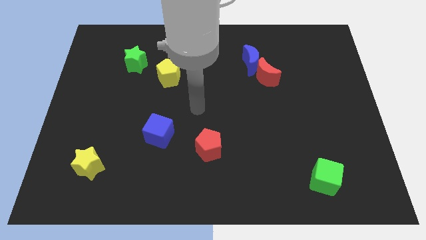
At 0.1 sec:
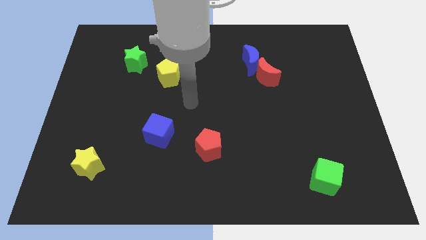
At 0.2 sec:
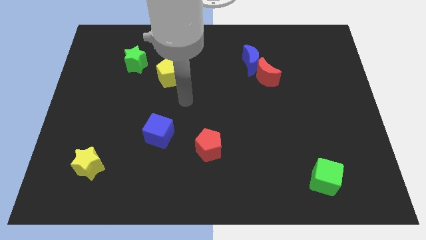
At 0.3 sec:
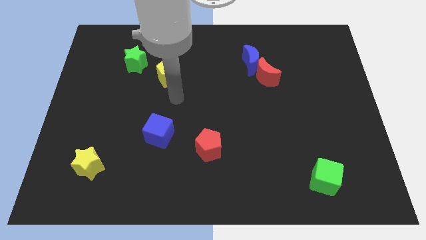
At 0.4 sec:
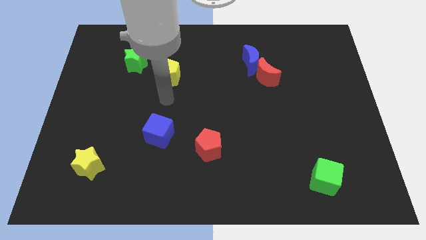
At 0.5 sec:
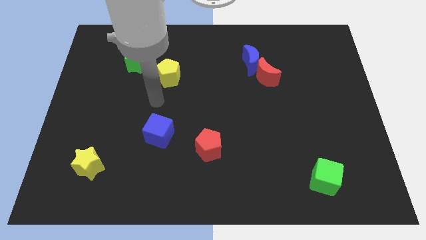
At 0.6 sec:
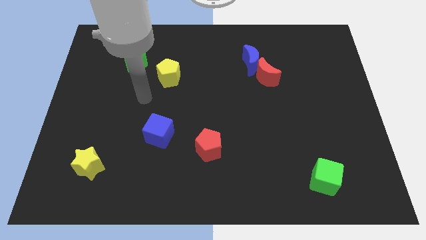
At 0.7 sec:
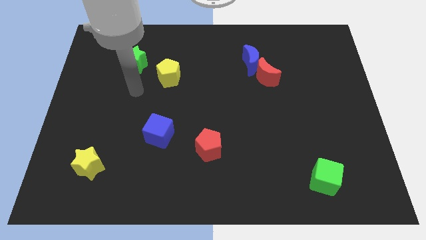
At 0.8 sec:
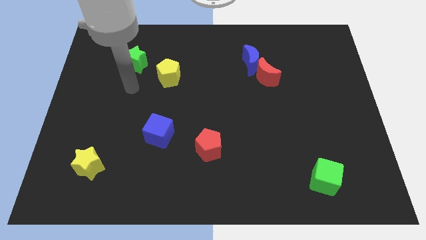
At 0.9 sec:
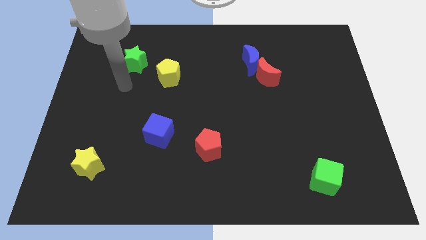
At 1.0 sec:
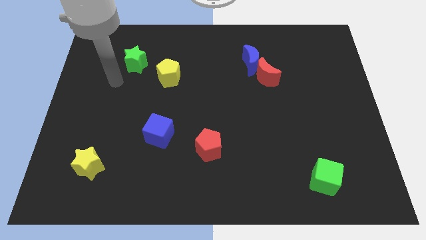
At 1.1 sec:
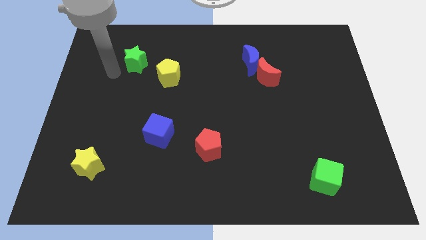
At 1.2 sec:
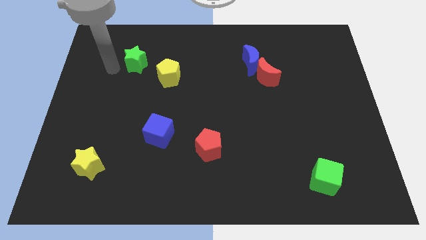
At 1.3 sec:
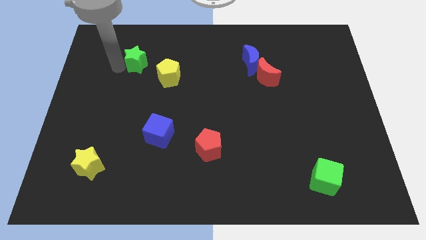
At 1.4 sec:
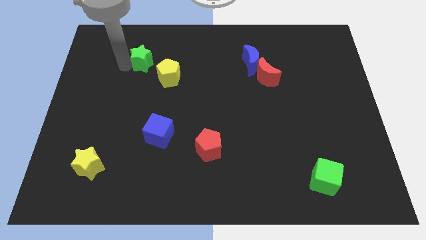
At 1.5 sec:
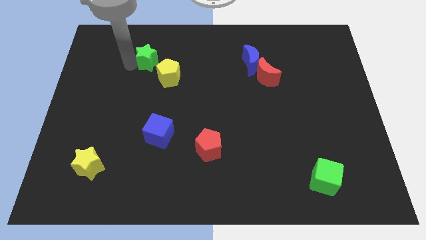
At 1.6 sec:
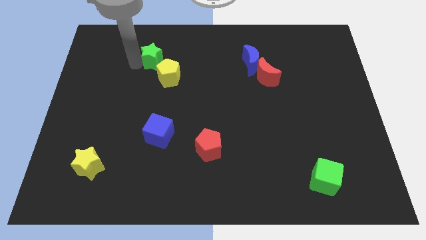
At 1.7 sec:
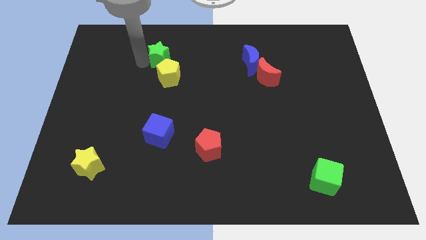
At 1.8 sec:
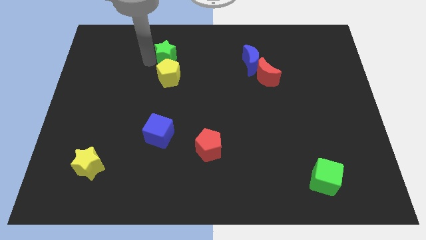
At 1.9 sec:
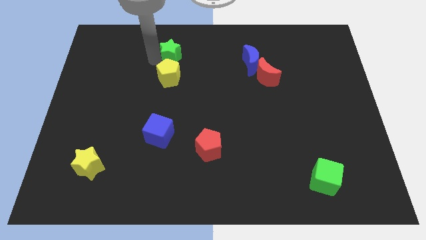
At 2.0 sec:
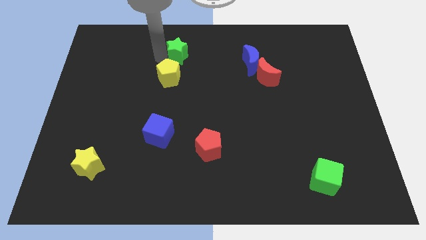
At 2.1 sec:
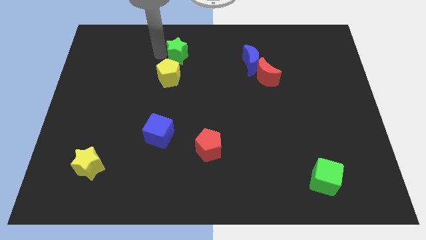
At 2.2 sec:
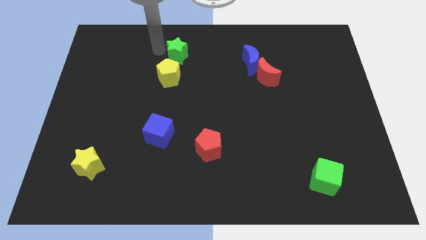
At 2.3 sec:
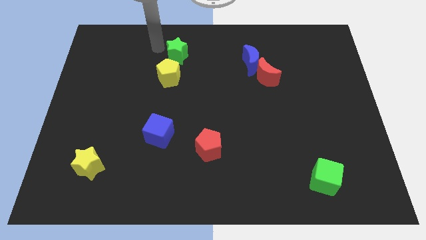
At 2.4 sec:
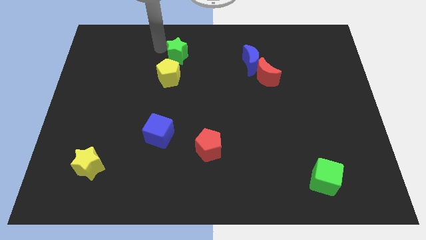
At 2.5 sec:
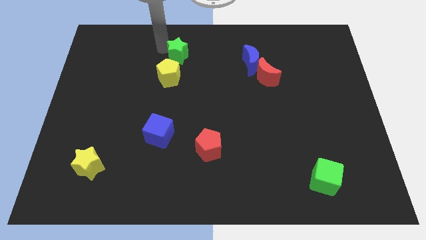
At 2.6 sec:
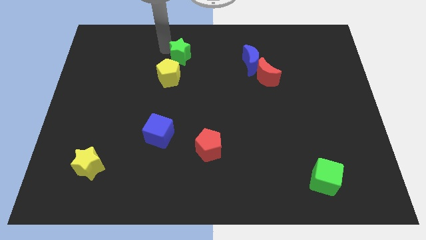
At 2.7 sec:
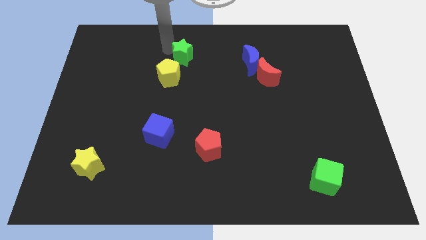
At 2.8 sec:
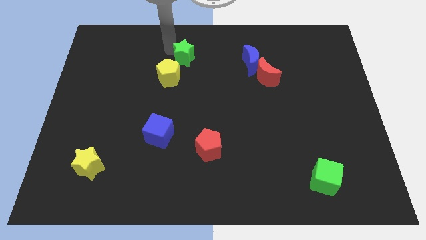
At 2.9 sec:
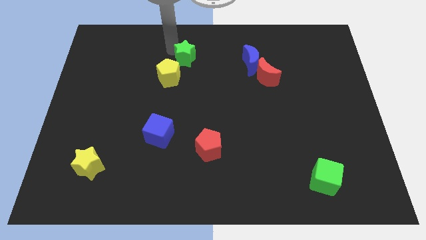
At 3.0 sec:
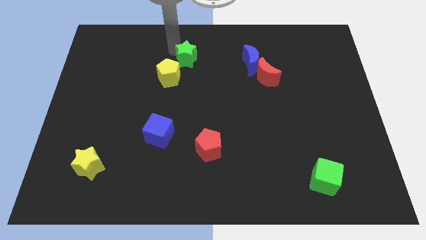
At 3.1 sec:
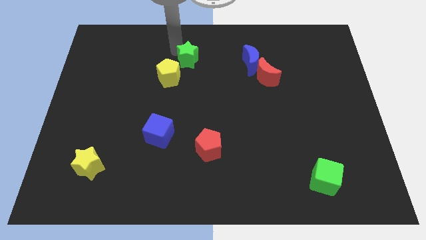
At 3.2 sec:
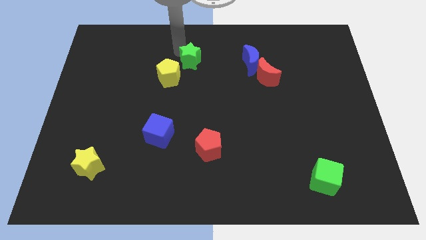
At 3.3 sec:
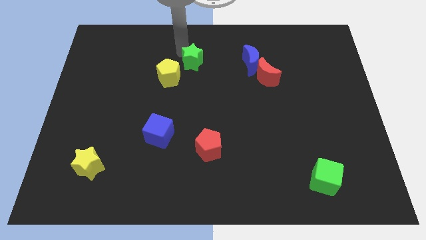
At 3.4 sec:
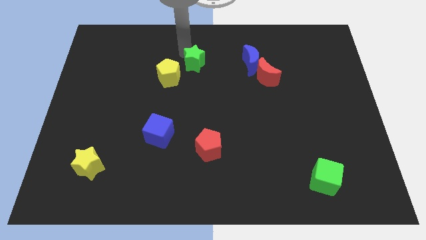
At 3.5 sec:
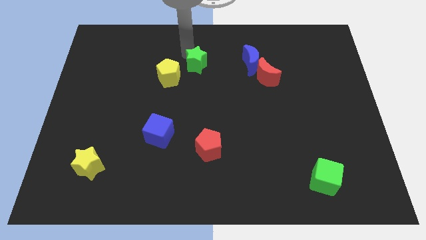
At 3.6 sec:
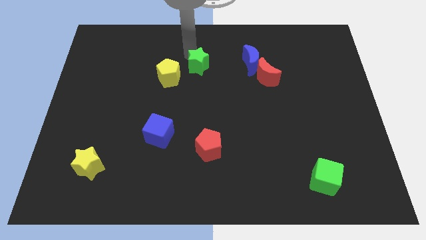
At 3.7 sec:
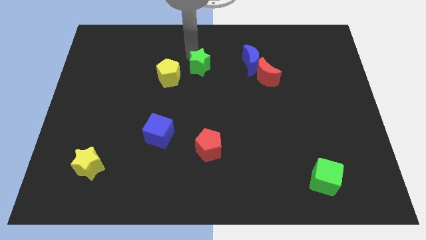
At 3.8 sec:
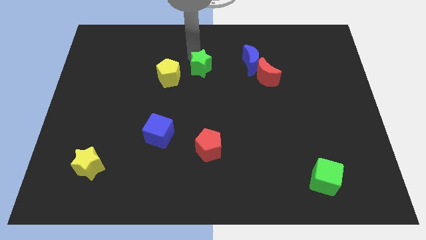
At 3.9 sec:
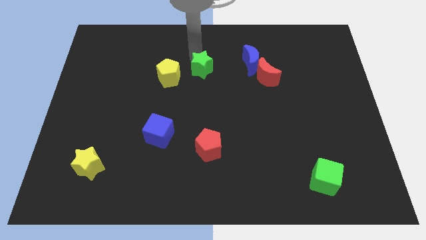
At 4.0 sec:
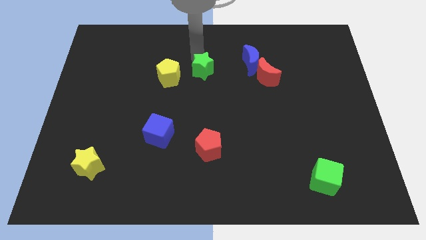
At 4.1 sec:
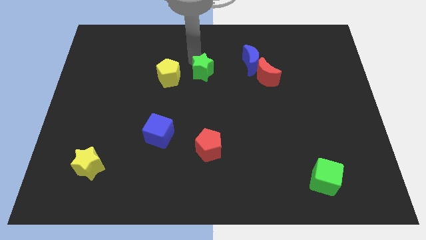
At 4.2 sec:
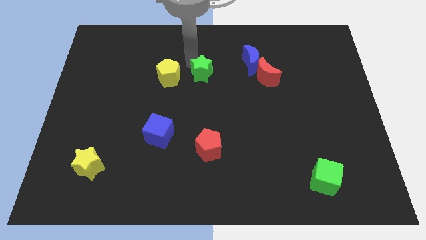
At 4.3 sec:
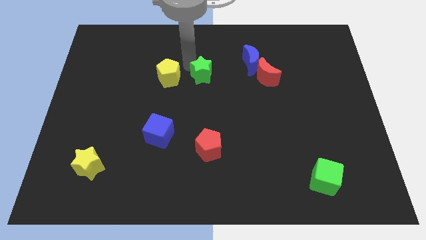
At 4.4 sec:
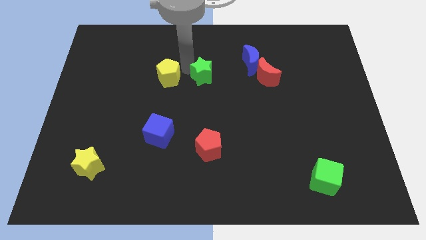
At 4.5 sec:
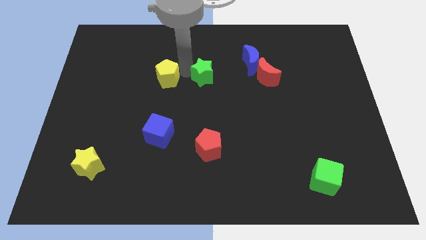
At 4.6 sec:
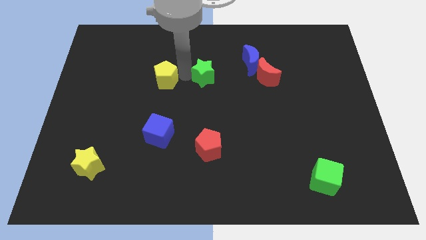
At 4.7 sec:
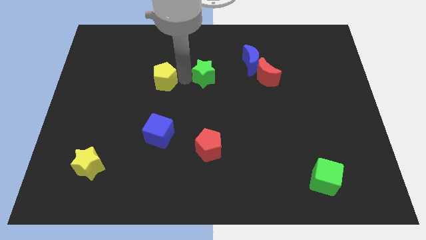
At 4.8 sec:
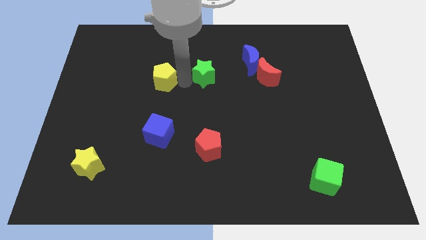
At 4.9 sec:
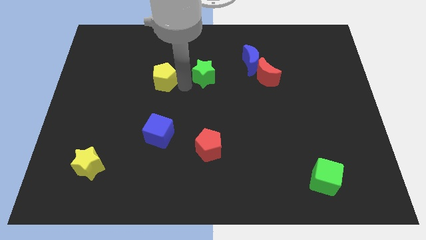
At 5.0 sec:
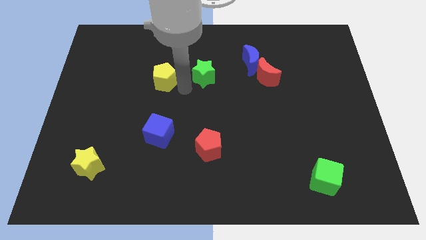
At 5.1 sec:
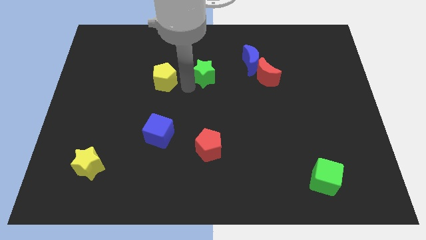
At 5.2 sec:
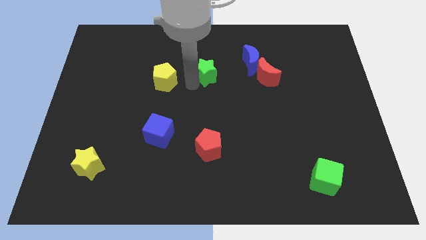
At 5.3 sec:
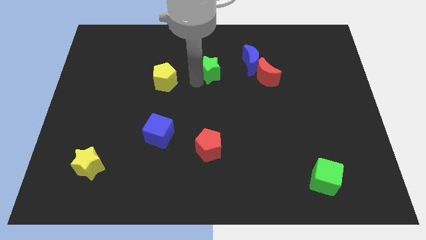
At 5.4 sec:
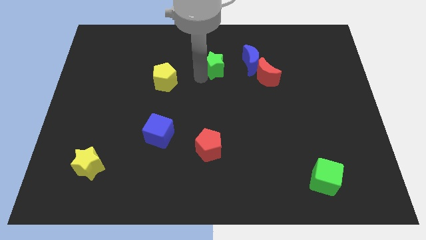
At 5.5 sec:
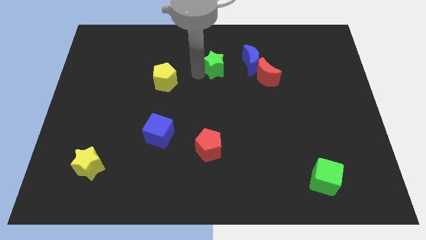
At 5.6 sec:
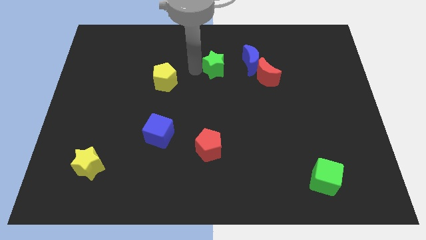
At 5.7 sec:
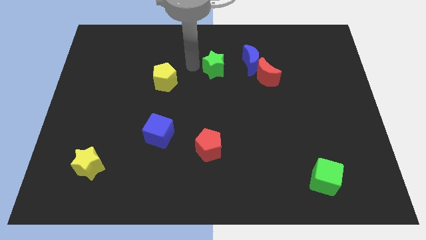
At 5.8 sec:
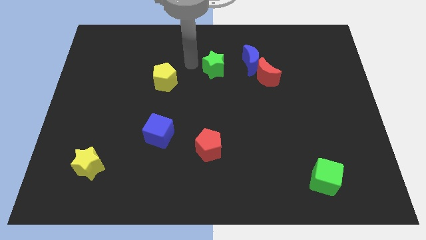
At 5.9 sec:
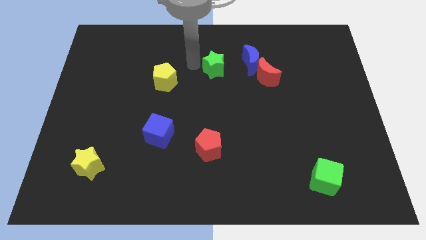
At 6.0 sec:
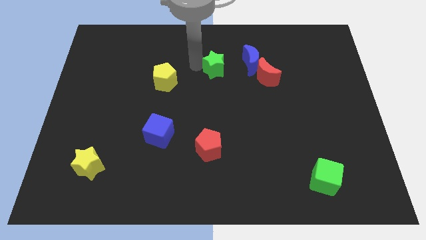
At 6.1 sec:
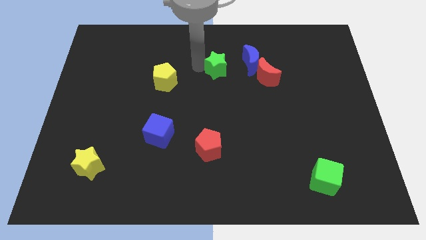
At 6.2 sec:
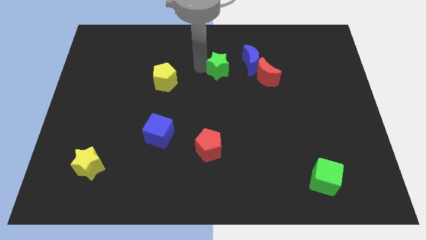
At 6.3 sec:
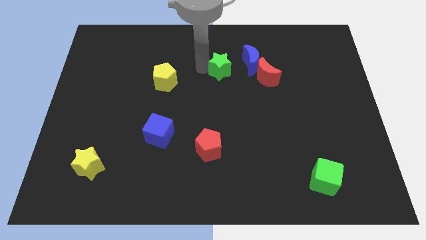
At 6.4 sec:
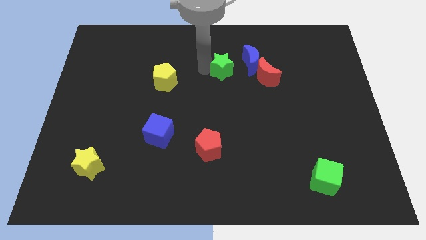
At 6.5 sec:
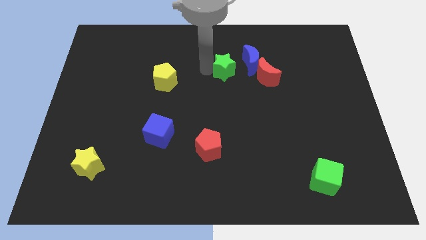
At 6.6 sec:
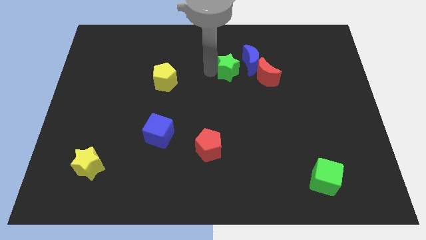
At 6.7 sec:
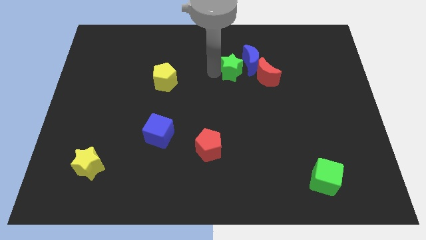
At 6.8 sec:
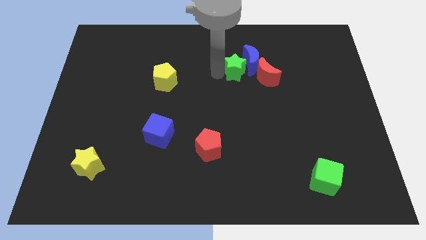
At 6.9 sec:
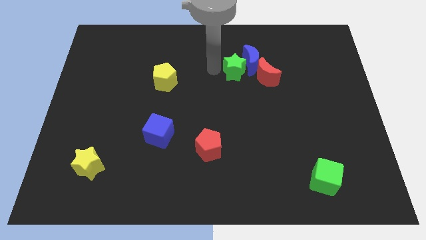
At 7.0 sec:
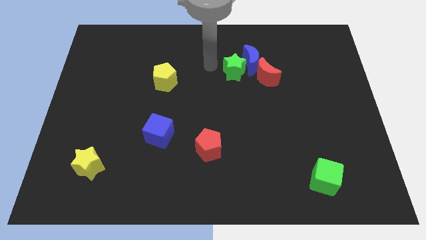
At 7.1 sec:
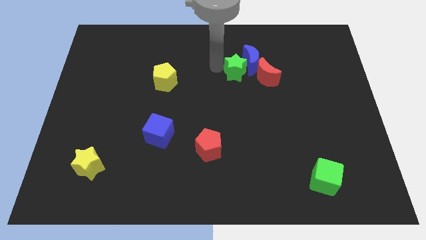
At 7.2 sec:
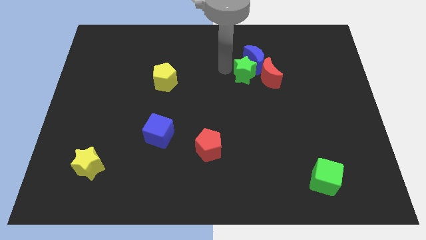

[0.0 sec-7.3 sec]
push the green star next to the red moon
